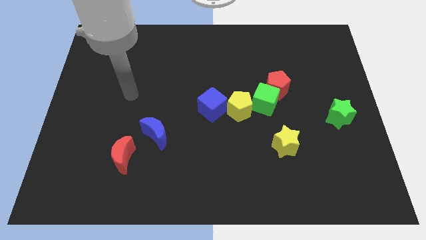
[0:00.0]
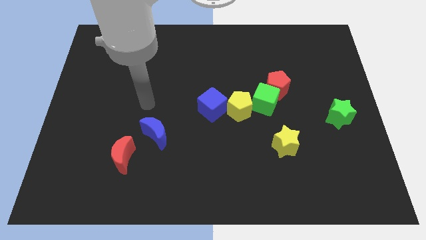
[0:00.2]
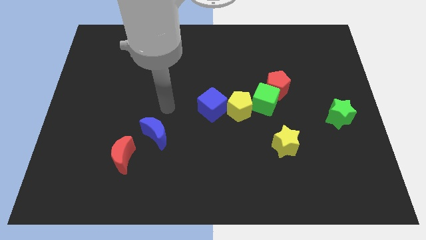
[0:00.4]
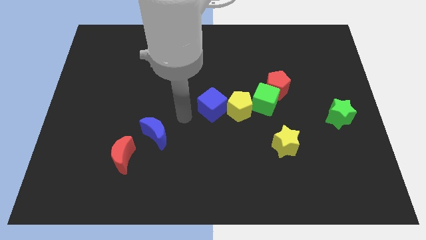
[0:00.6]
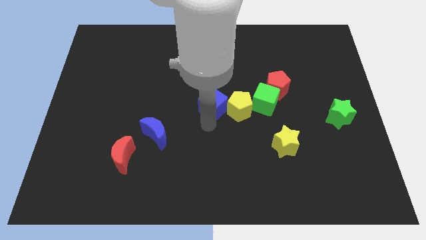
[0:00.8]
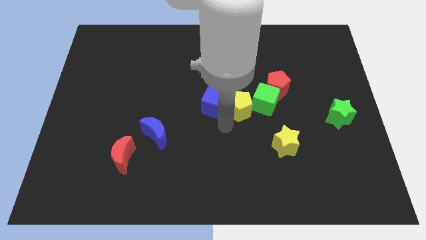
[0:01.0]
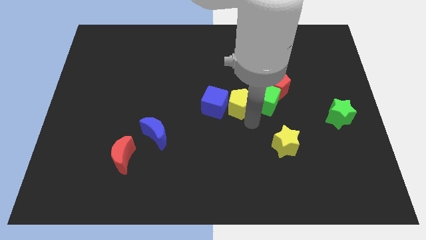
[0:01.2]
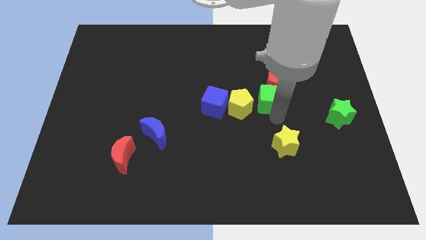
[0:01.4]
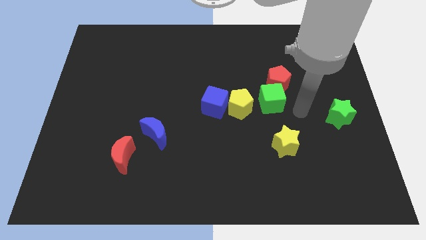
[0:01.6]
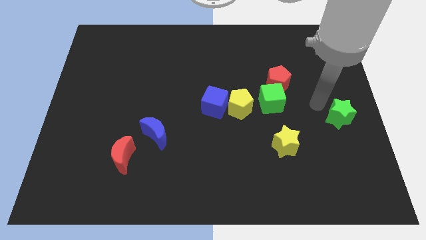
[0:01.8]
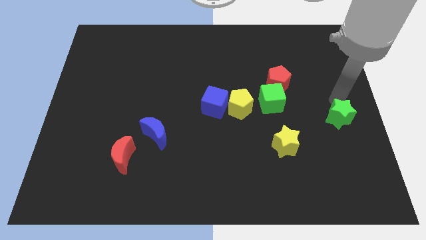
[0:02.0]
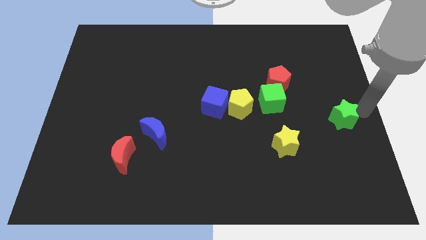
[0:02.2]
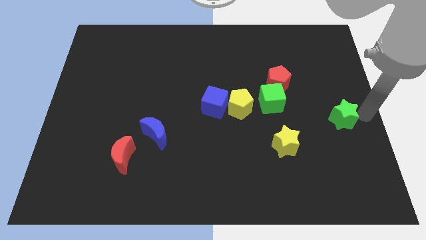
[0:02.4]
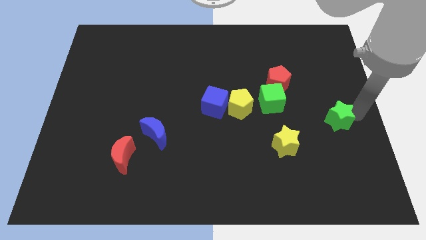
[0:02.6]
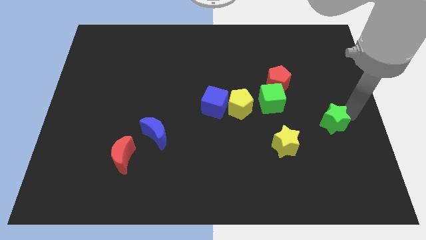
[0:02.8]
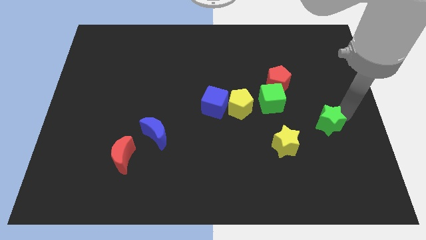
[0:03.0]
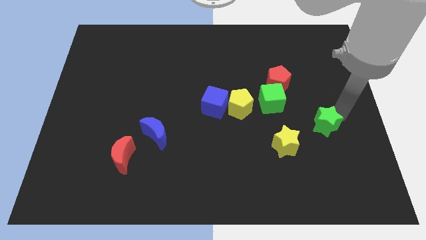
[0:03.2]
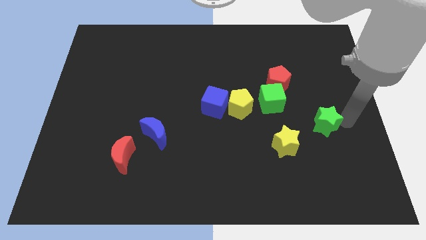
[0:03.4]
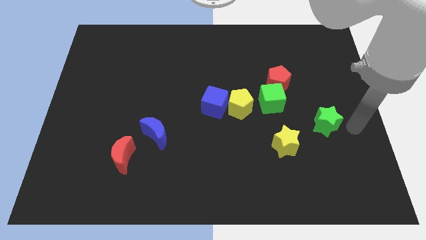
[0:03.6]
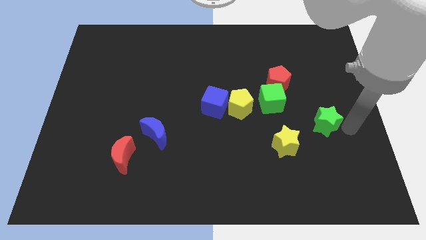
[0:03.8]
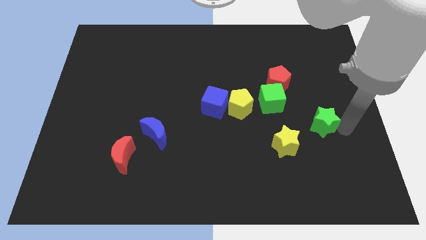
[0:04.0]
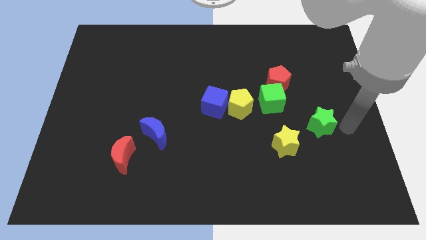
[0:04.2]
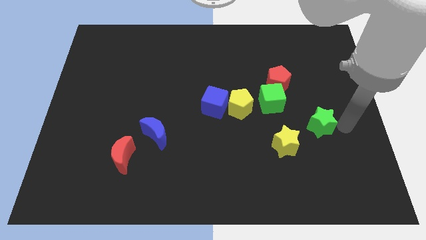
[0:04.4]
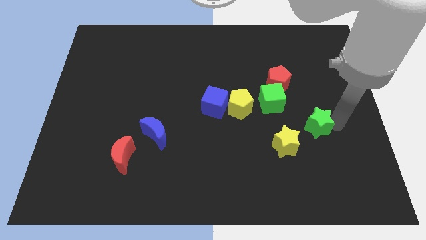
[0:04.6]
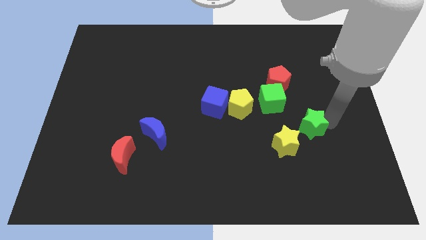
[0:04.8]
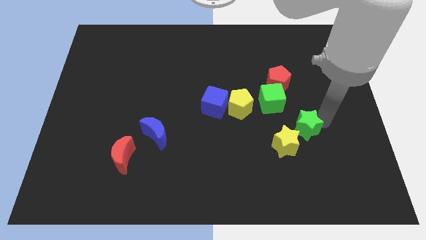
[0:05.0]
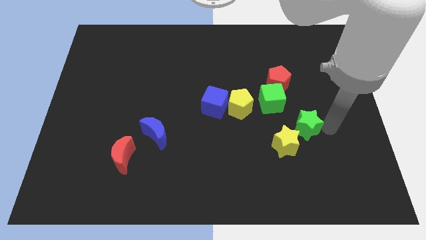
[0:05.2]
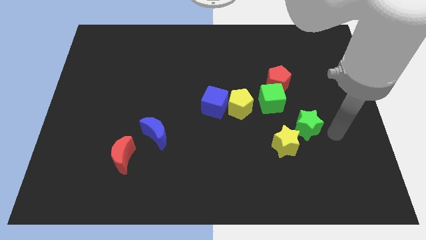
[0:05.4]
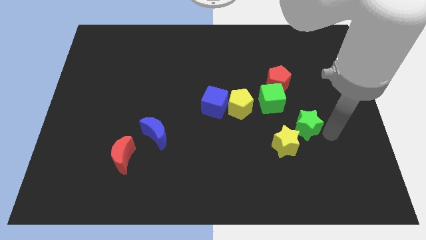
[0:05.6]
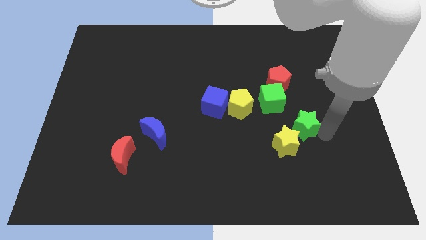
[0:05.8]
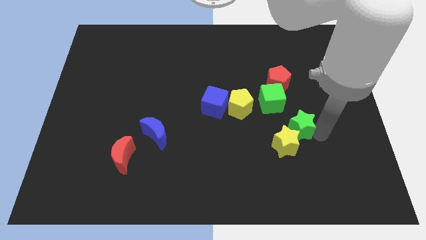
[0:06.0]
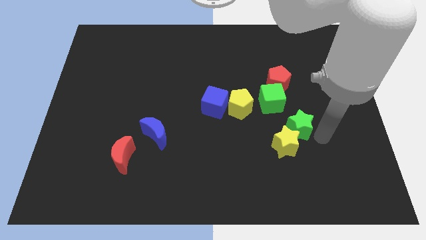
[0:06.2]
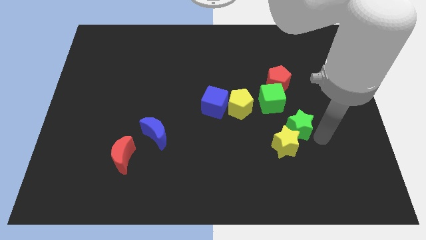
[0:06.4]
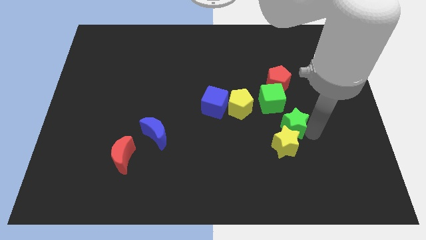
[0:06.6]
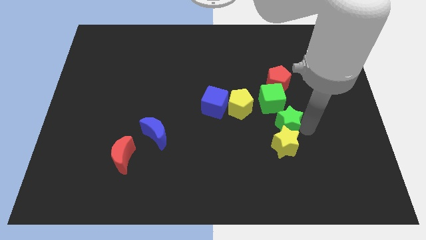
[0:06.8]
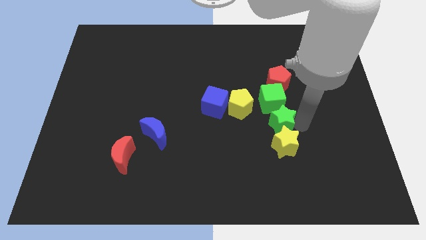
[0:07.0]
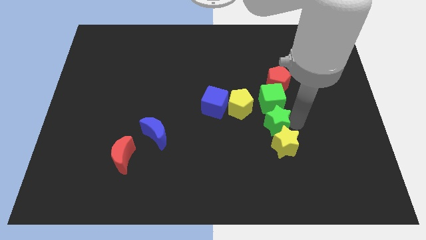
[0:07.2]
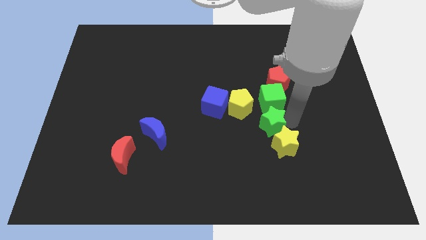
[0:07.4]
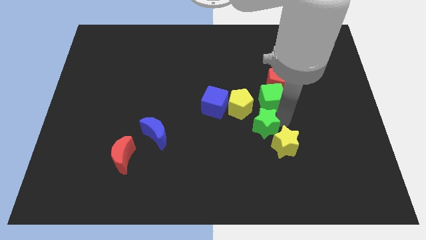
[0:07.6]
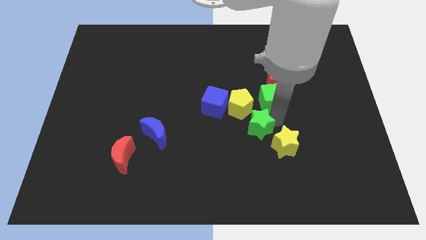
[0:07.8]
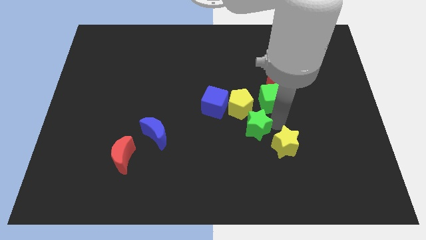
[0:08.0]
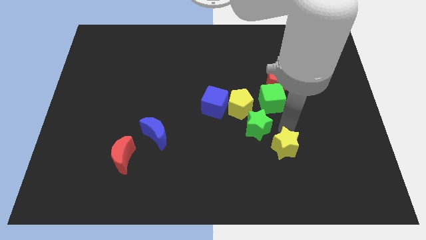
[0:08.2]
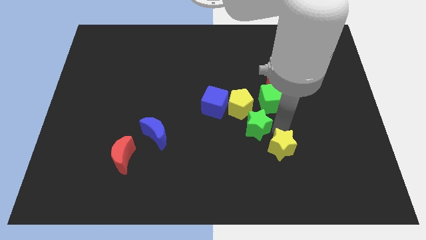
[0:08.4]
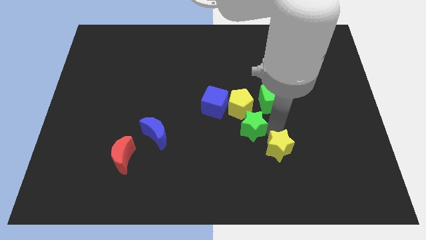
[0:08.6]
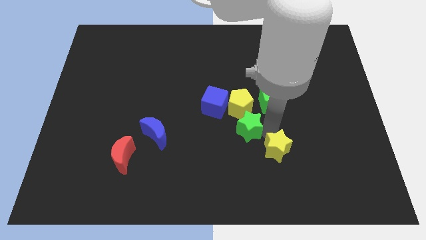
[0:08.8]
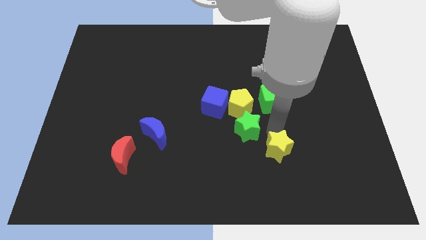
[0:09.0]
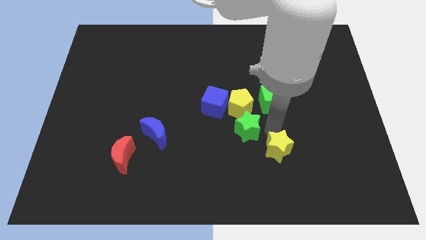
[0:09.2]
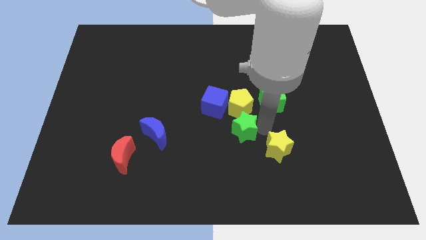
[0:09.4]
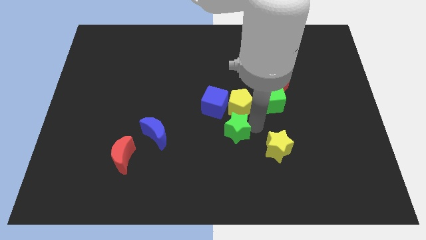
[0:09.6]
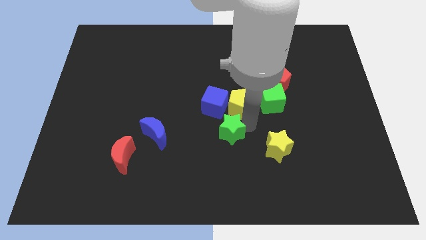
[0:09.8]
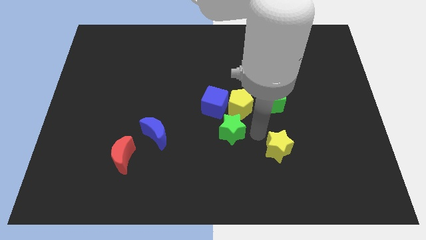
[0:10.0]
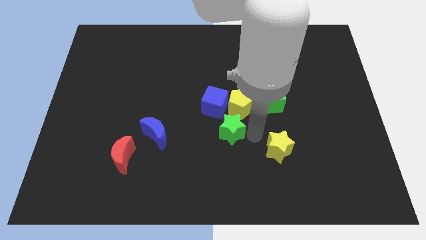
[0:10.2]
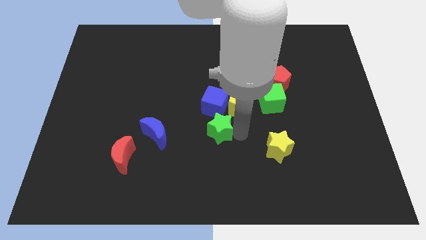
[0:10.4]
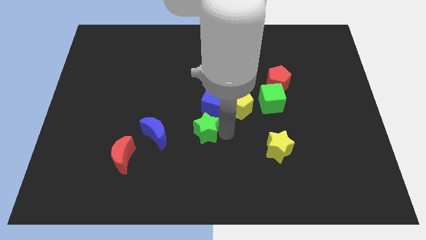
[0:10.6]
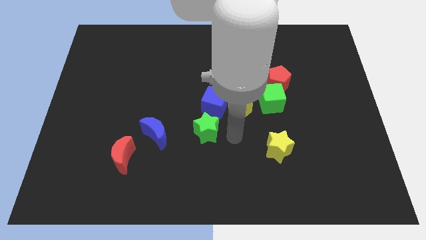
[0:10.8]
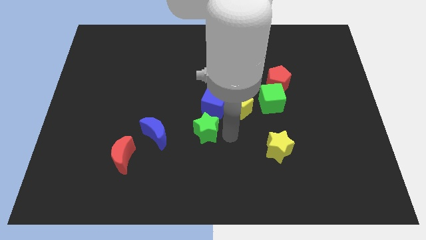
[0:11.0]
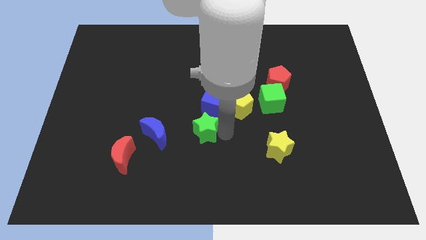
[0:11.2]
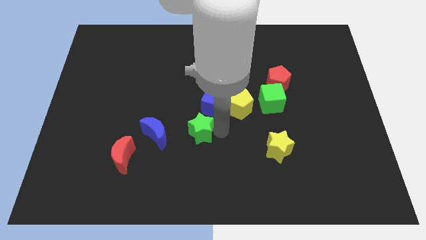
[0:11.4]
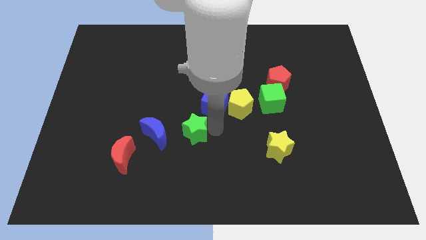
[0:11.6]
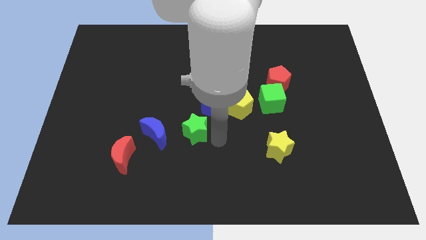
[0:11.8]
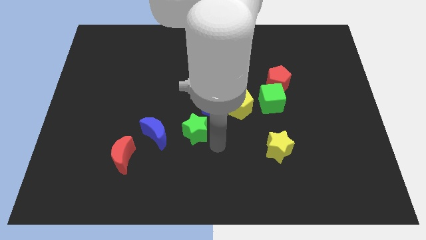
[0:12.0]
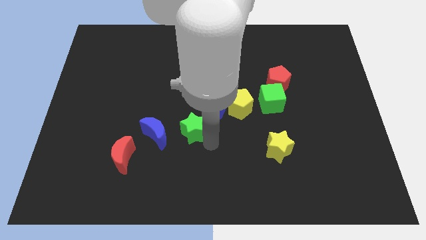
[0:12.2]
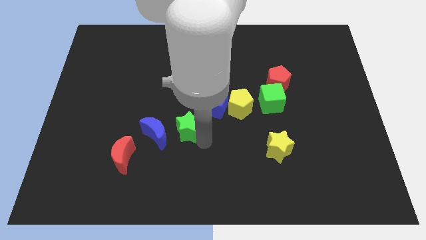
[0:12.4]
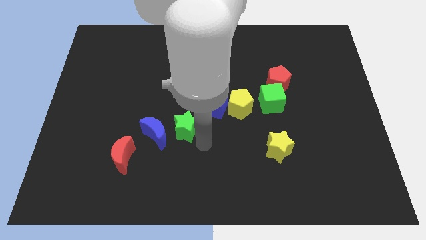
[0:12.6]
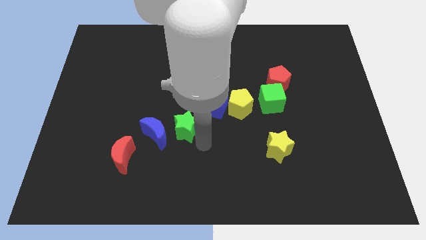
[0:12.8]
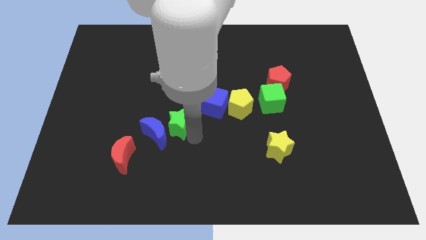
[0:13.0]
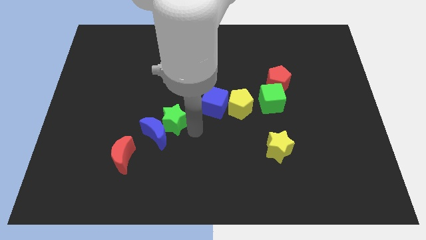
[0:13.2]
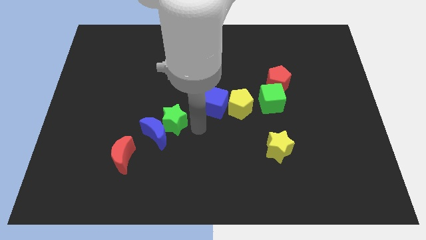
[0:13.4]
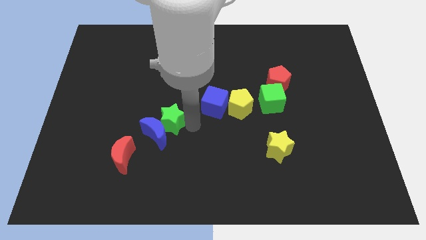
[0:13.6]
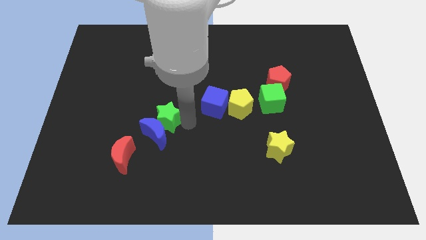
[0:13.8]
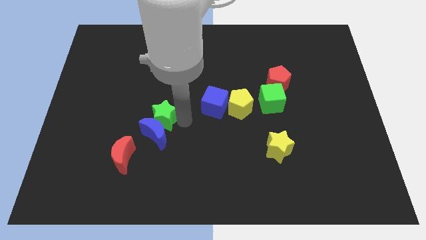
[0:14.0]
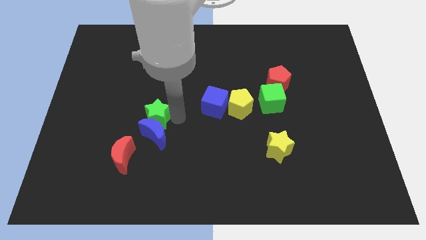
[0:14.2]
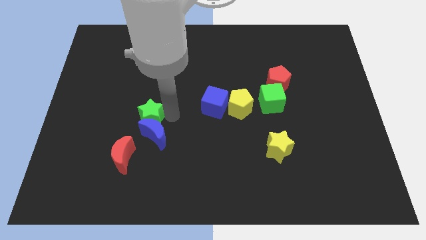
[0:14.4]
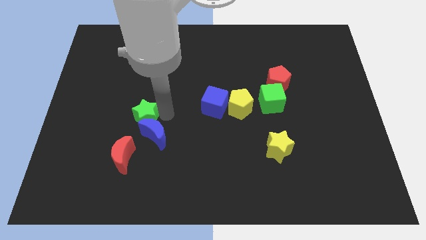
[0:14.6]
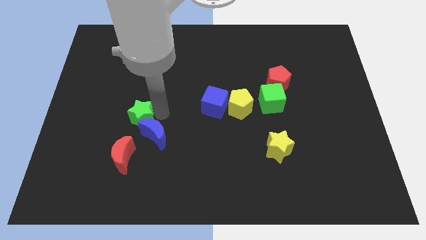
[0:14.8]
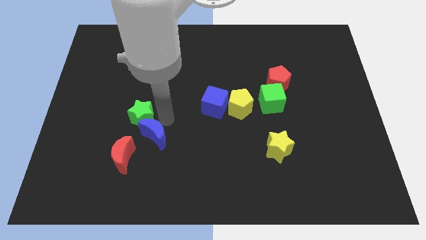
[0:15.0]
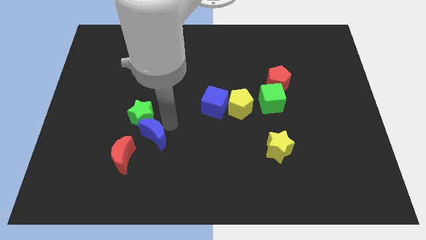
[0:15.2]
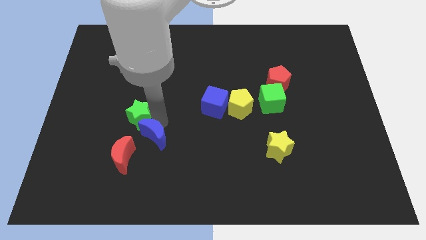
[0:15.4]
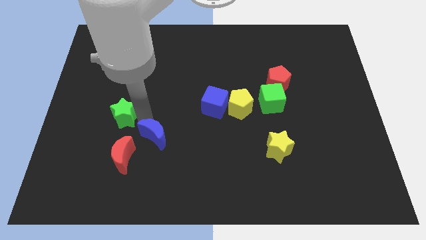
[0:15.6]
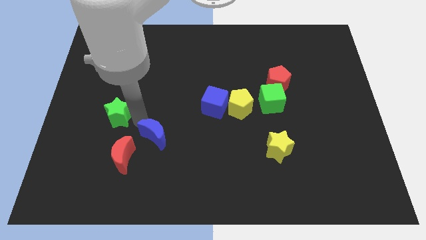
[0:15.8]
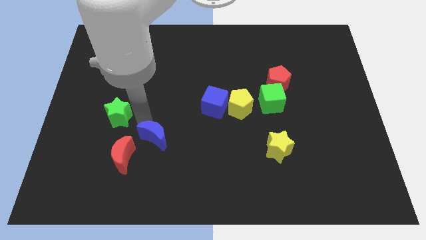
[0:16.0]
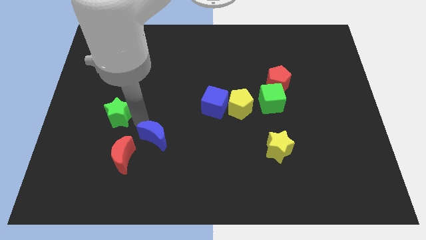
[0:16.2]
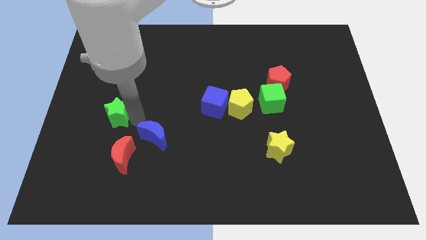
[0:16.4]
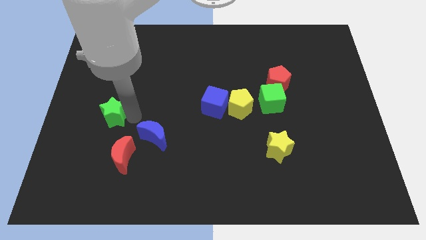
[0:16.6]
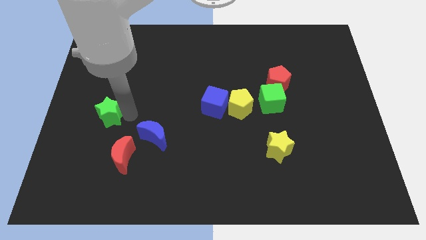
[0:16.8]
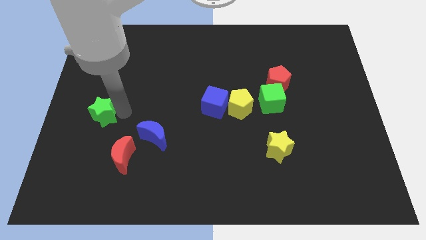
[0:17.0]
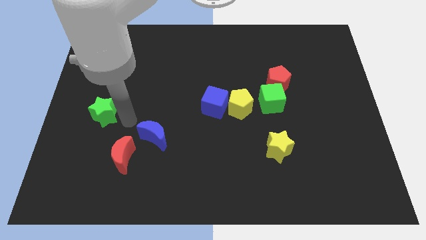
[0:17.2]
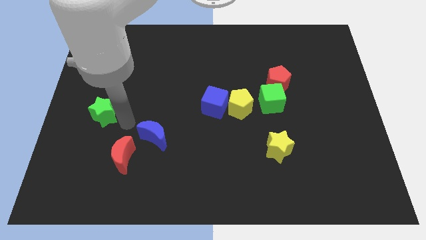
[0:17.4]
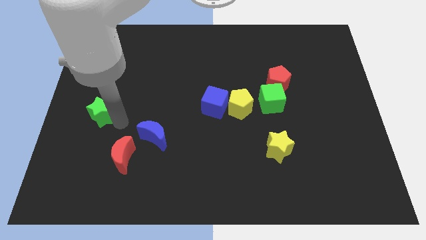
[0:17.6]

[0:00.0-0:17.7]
put the green star to the left side
